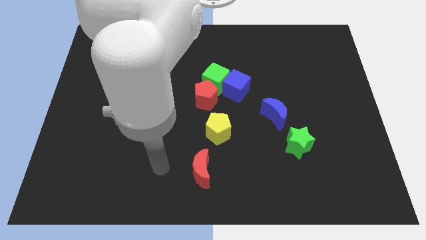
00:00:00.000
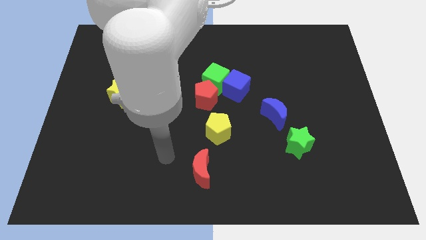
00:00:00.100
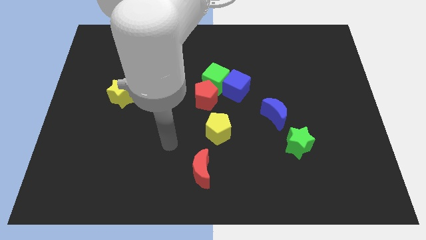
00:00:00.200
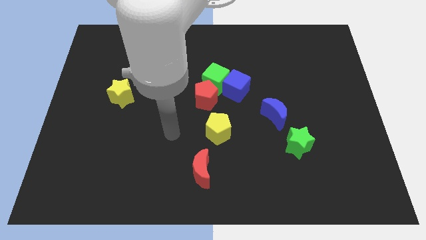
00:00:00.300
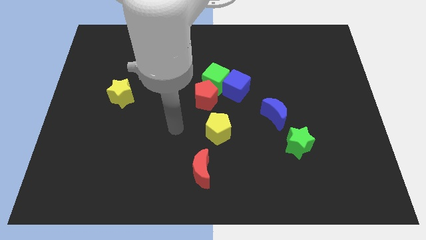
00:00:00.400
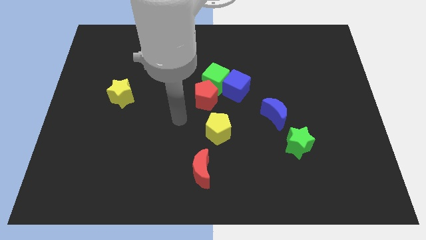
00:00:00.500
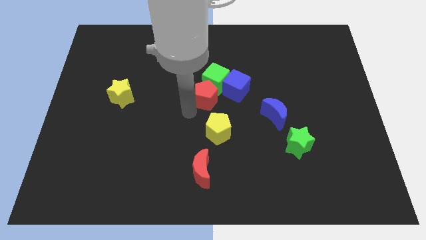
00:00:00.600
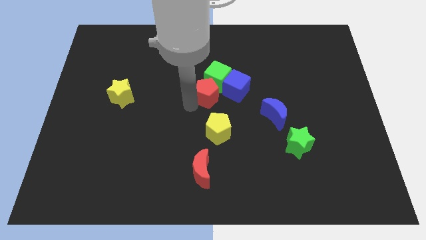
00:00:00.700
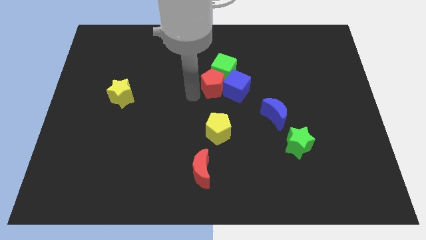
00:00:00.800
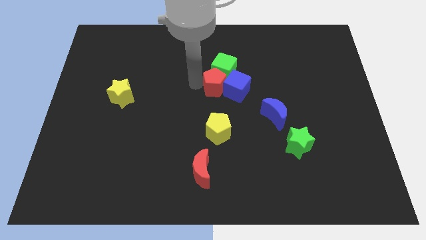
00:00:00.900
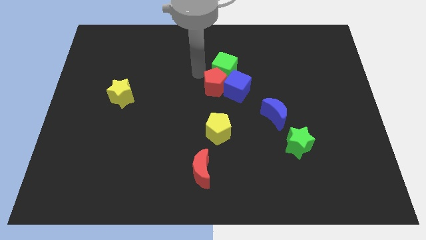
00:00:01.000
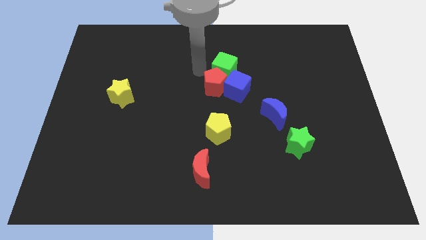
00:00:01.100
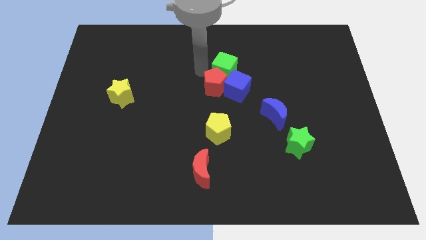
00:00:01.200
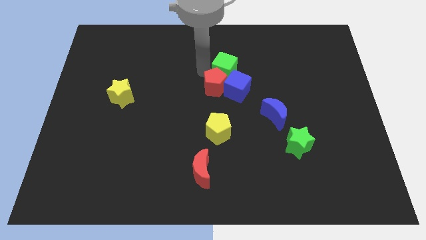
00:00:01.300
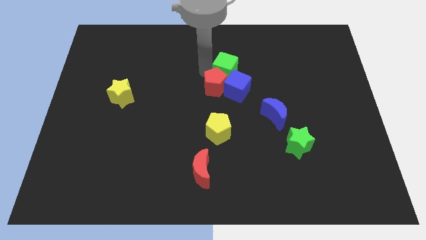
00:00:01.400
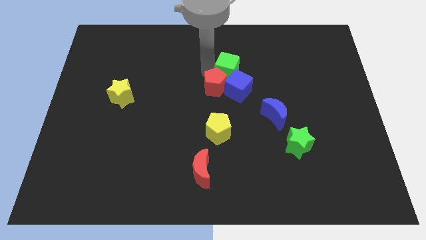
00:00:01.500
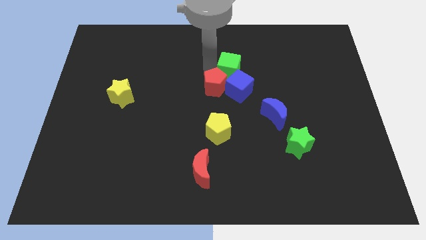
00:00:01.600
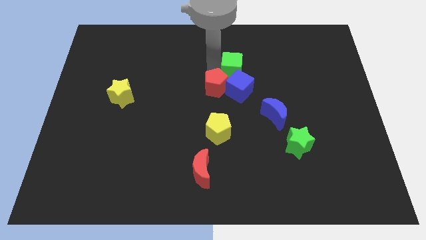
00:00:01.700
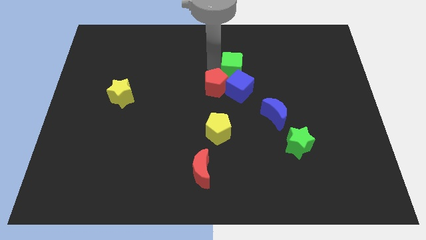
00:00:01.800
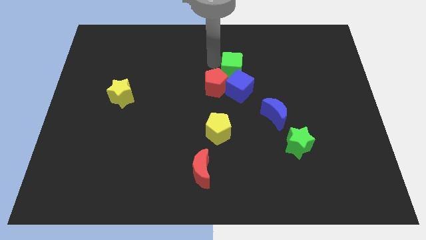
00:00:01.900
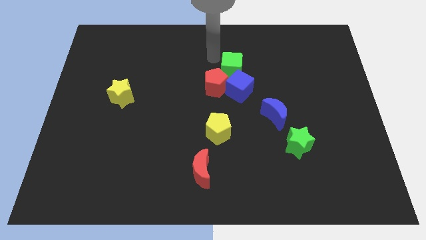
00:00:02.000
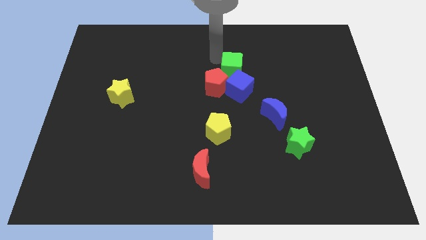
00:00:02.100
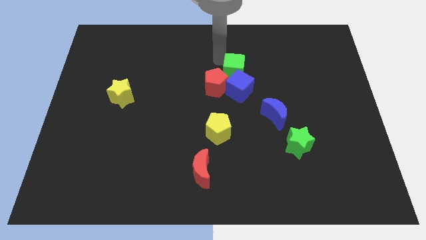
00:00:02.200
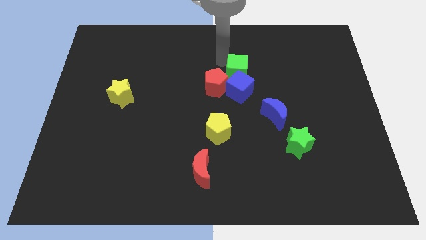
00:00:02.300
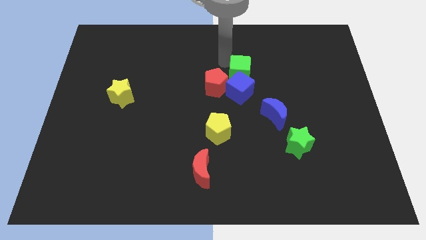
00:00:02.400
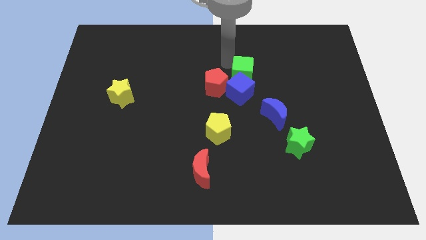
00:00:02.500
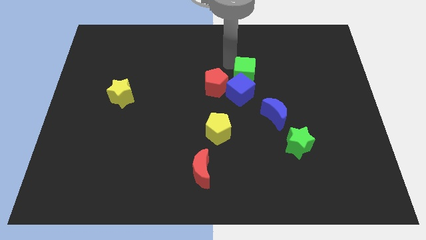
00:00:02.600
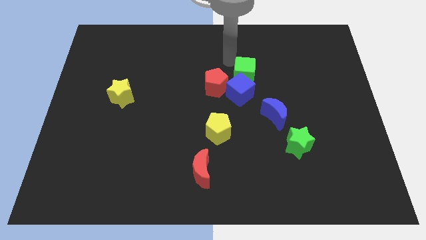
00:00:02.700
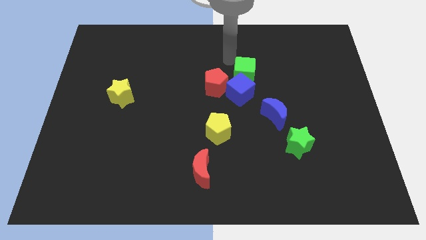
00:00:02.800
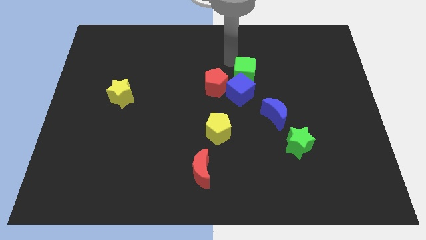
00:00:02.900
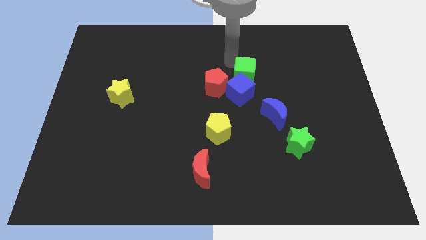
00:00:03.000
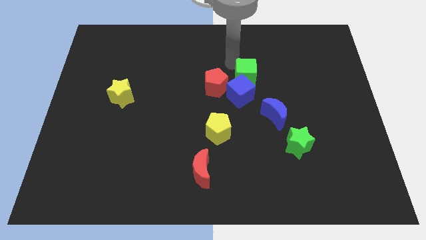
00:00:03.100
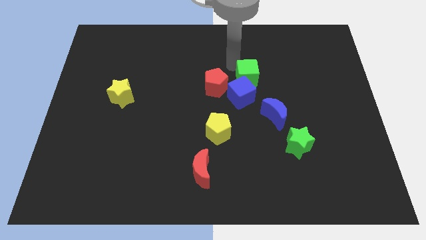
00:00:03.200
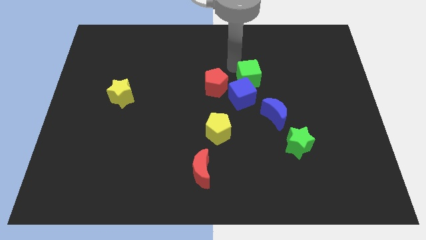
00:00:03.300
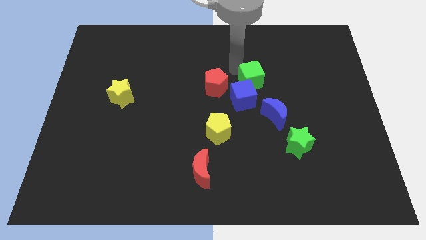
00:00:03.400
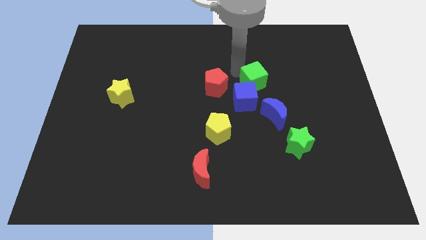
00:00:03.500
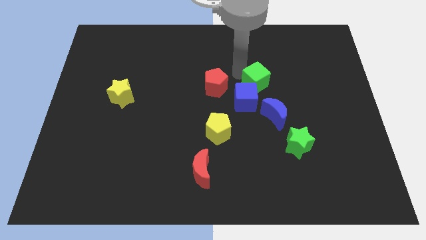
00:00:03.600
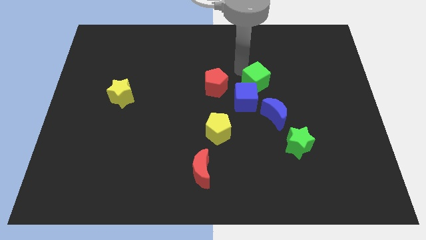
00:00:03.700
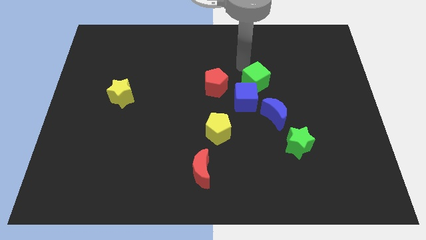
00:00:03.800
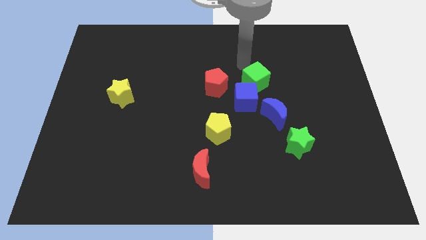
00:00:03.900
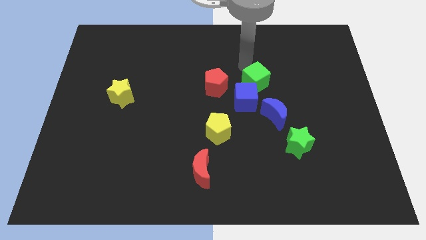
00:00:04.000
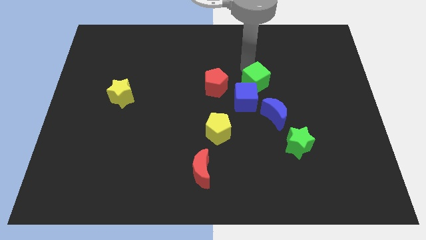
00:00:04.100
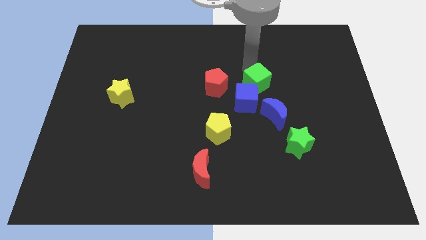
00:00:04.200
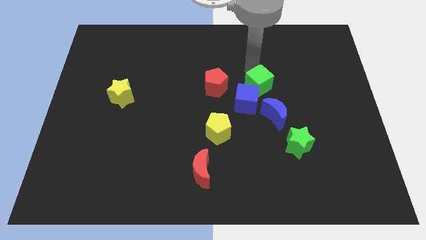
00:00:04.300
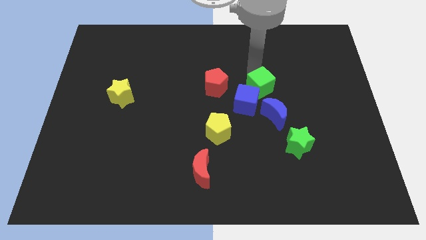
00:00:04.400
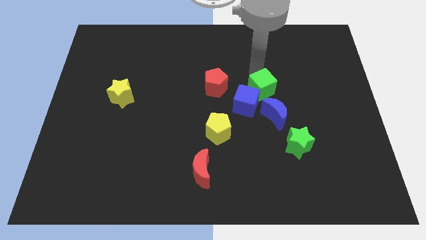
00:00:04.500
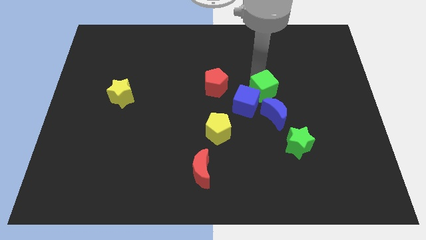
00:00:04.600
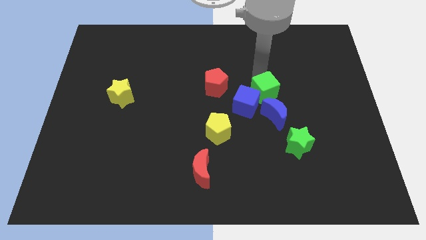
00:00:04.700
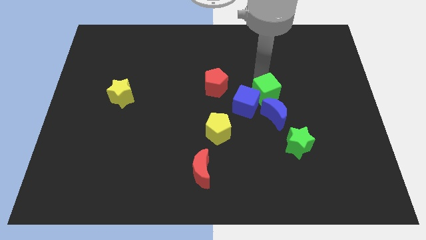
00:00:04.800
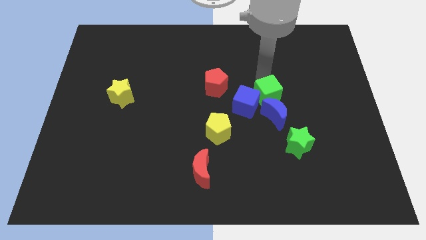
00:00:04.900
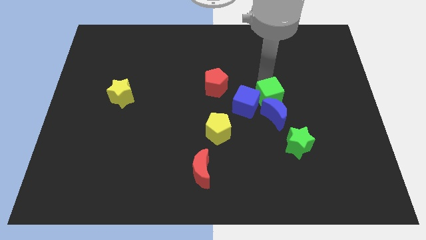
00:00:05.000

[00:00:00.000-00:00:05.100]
slide the green cube towards the blue moon

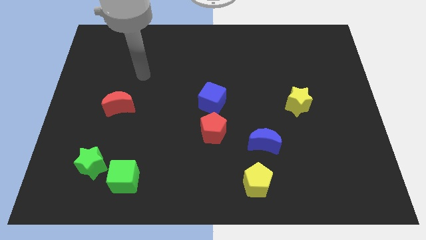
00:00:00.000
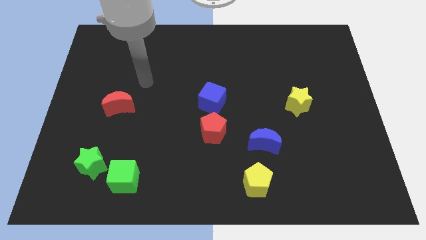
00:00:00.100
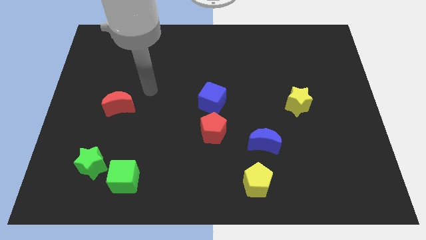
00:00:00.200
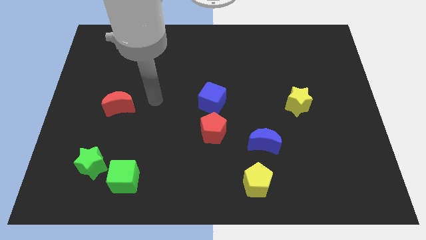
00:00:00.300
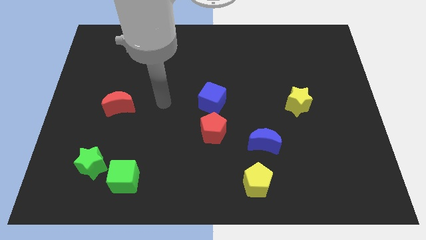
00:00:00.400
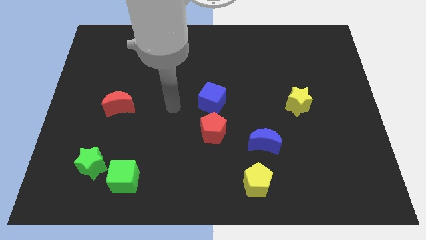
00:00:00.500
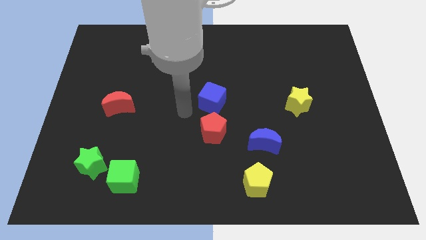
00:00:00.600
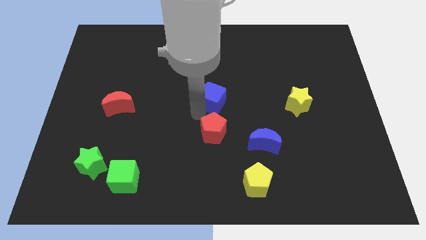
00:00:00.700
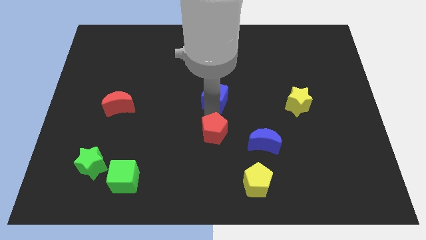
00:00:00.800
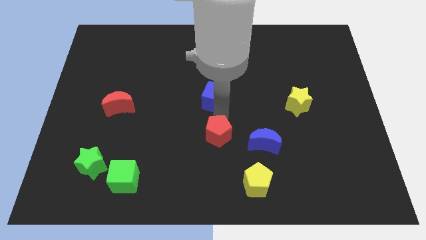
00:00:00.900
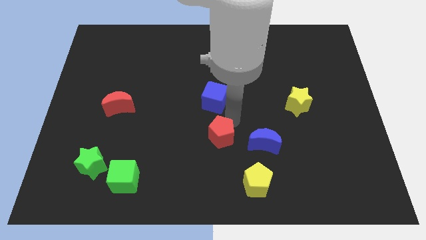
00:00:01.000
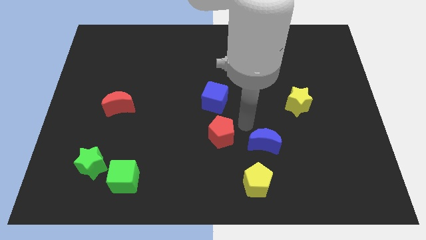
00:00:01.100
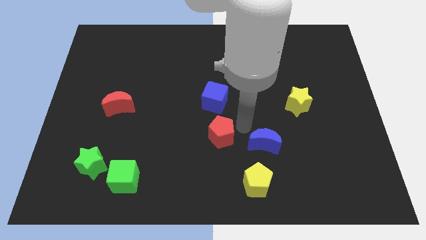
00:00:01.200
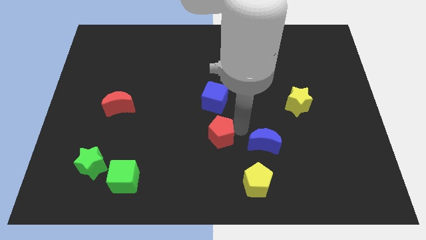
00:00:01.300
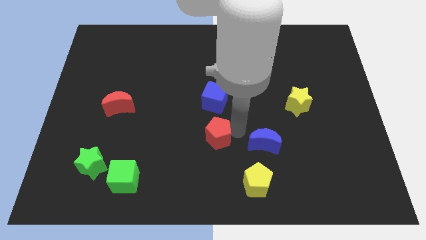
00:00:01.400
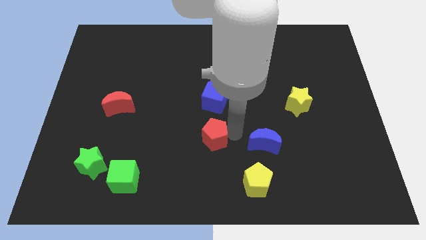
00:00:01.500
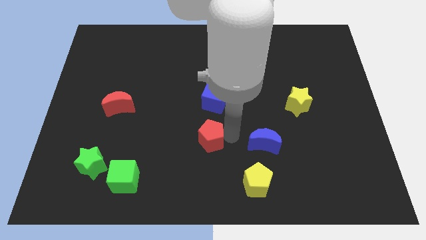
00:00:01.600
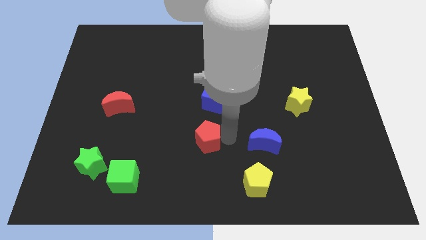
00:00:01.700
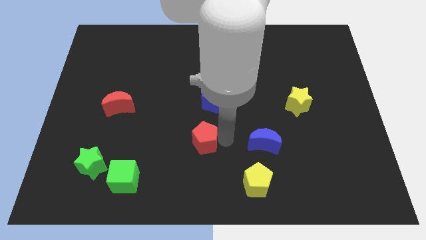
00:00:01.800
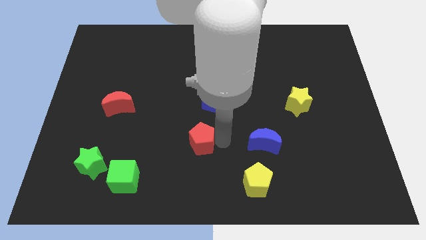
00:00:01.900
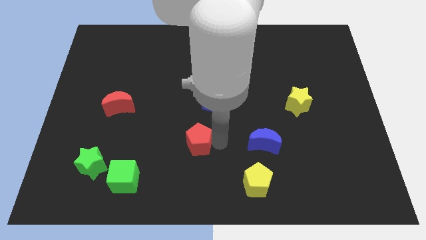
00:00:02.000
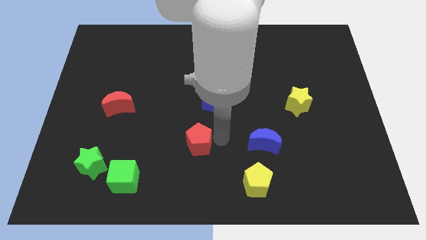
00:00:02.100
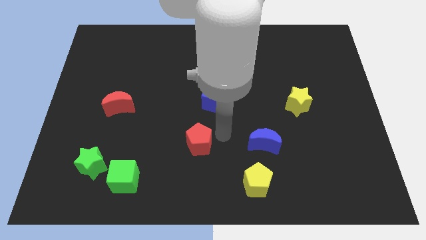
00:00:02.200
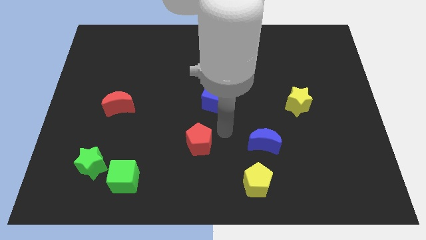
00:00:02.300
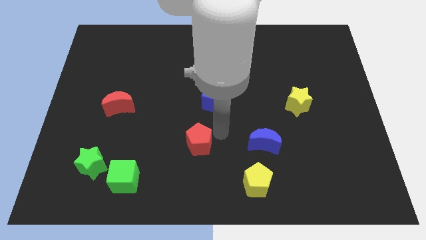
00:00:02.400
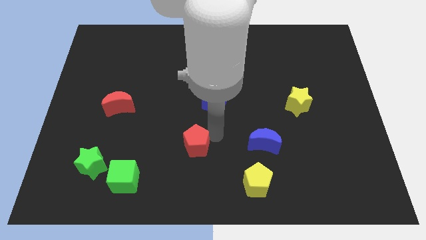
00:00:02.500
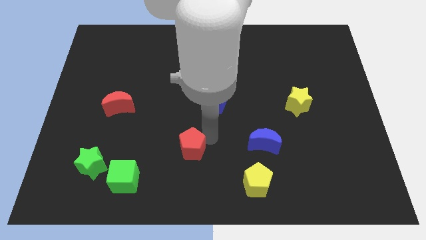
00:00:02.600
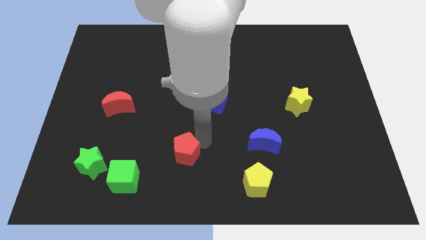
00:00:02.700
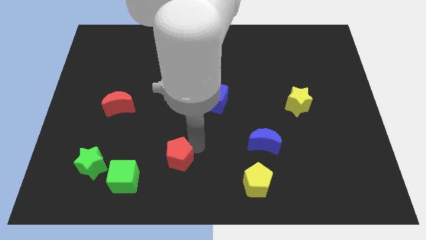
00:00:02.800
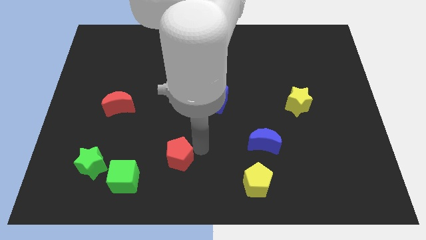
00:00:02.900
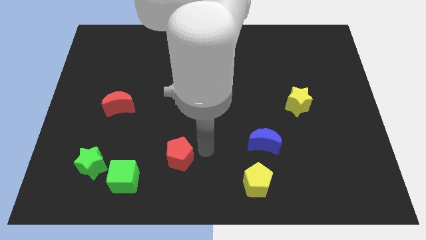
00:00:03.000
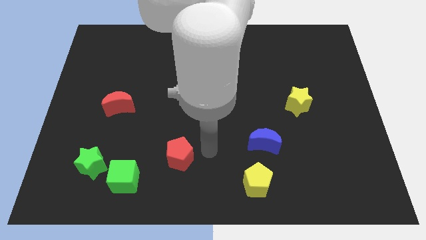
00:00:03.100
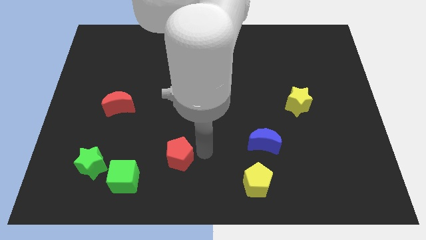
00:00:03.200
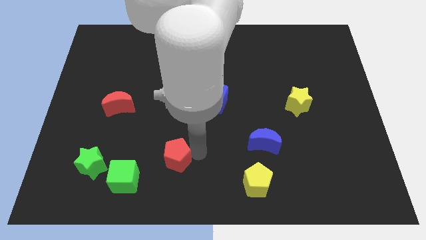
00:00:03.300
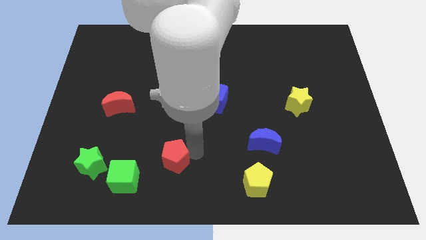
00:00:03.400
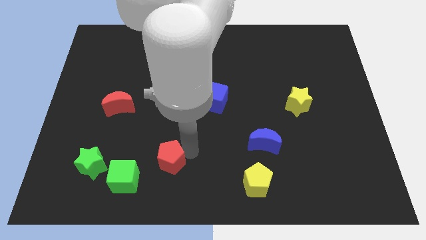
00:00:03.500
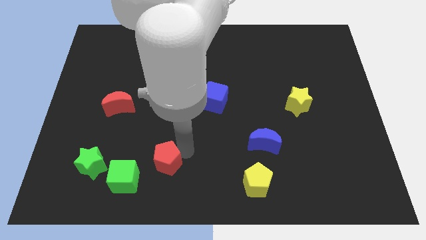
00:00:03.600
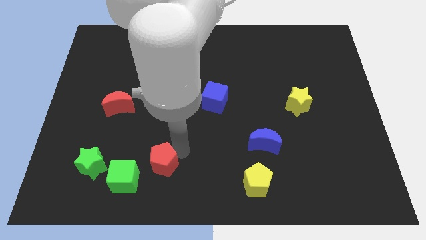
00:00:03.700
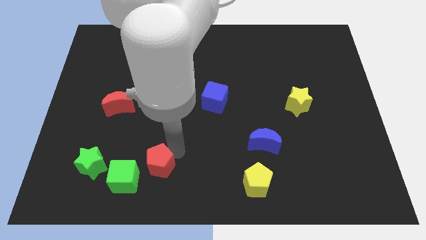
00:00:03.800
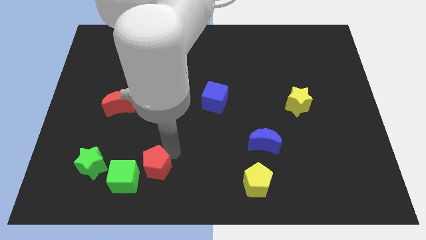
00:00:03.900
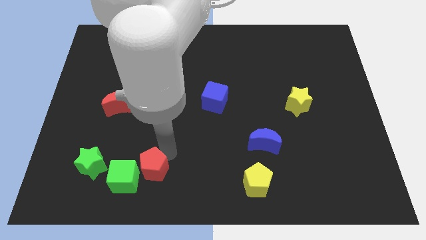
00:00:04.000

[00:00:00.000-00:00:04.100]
move the red pentagon towards the green cube
